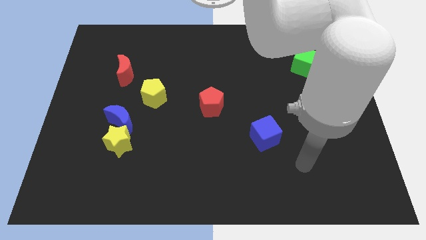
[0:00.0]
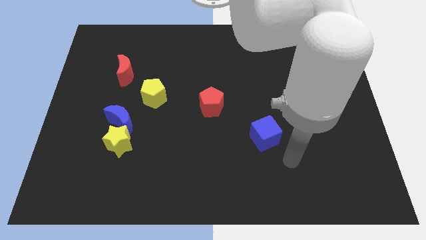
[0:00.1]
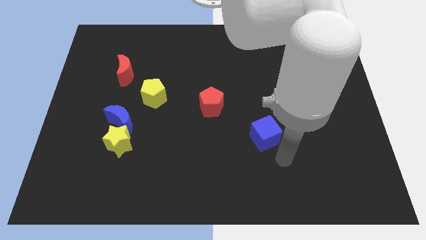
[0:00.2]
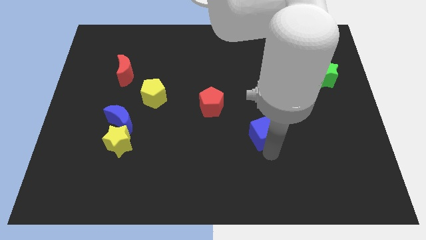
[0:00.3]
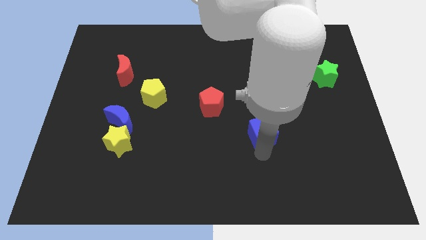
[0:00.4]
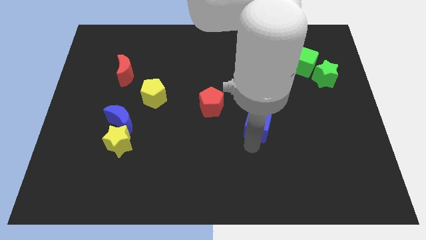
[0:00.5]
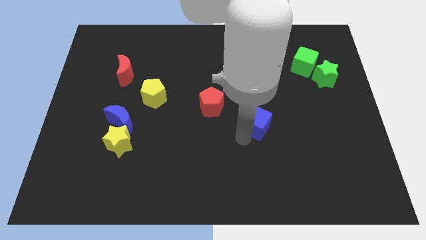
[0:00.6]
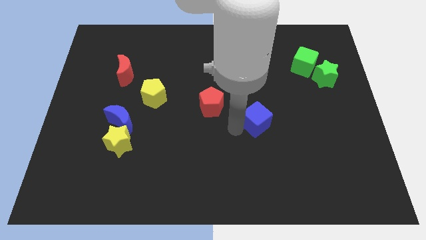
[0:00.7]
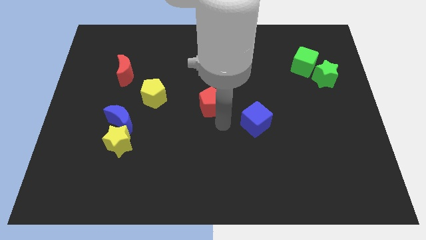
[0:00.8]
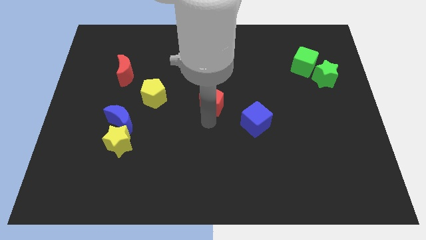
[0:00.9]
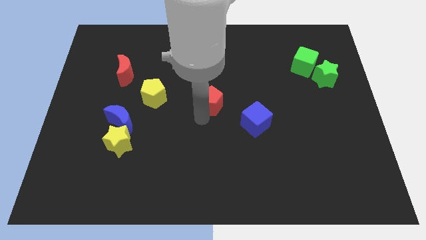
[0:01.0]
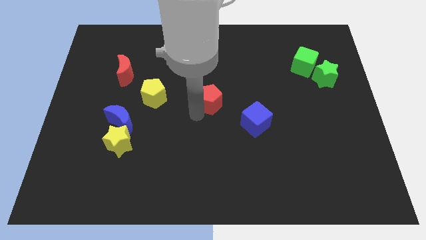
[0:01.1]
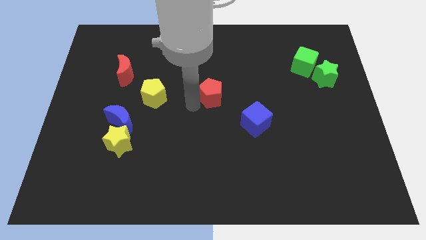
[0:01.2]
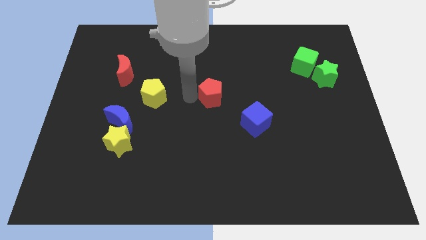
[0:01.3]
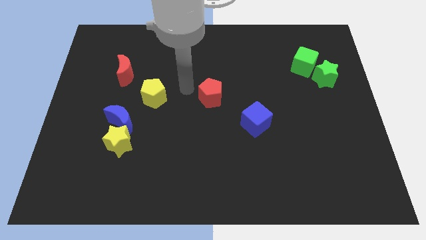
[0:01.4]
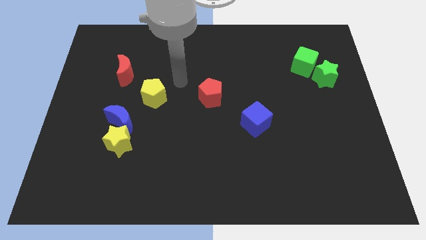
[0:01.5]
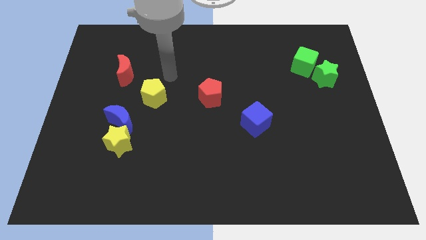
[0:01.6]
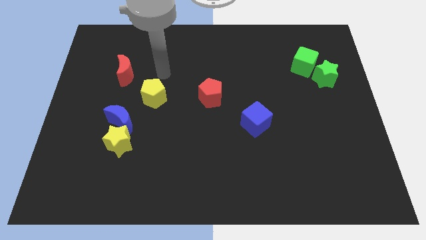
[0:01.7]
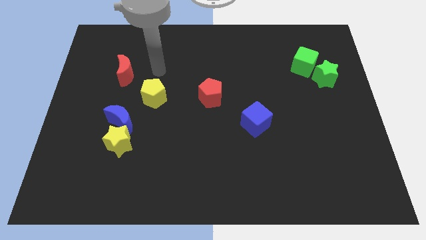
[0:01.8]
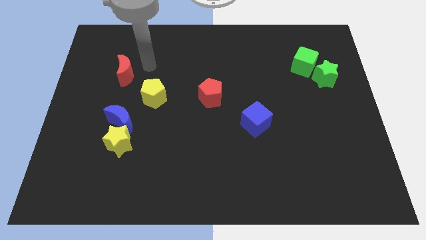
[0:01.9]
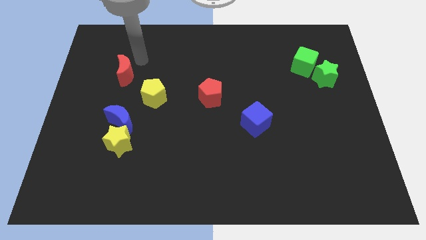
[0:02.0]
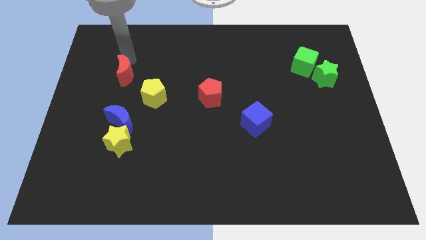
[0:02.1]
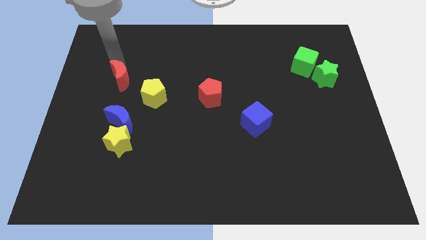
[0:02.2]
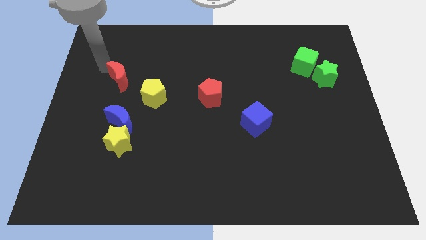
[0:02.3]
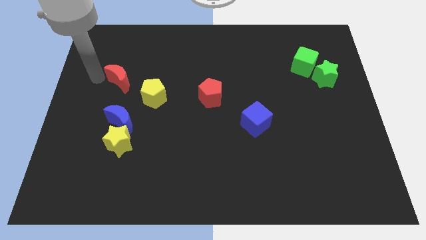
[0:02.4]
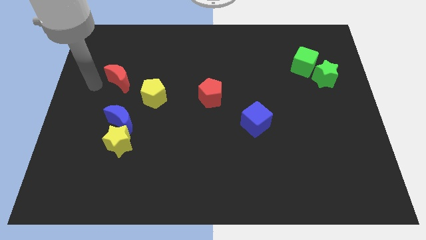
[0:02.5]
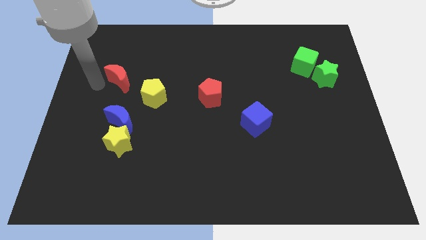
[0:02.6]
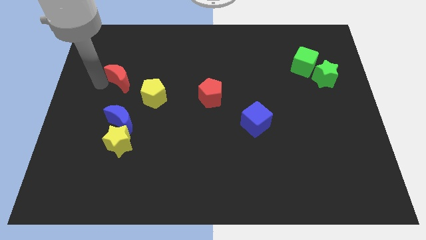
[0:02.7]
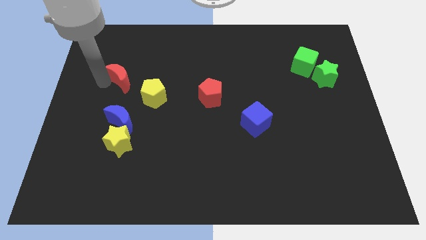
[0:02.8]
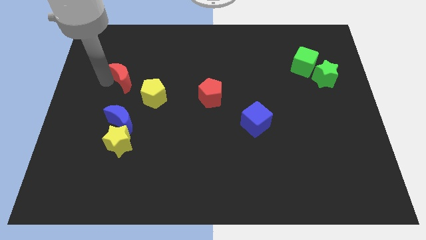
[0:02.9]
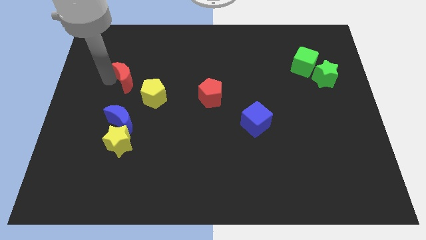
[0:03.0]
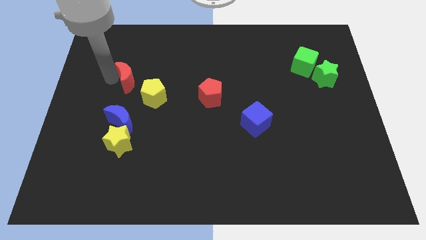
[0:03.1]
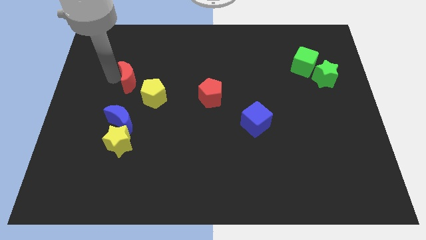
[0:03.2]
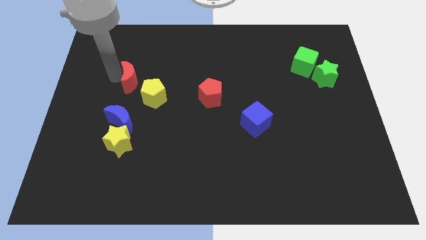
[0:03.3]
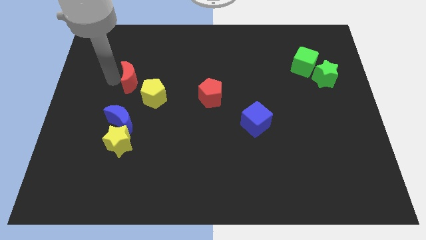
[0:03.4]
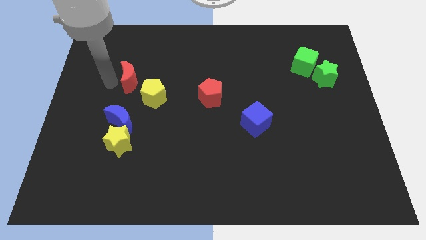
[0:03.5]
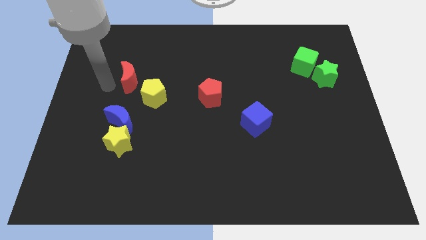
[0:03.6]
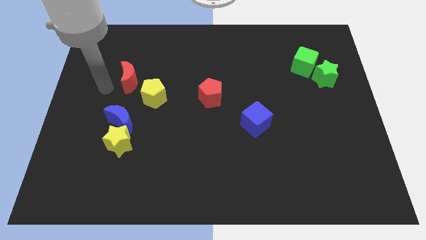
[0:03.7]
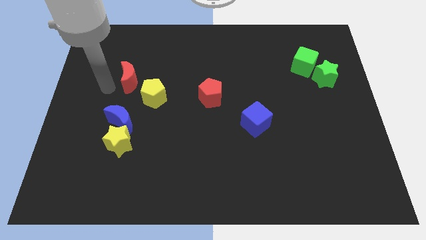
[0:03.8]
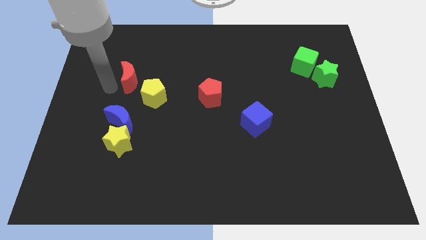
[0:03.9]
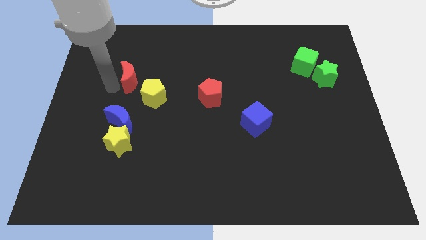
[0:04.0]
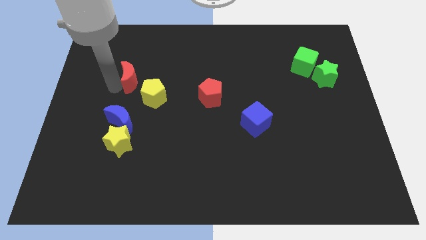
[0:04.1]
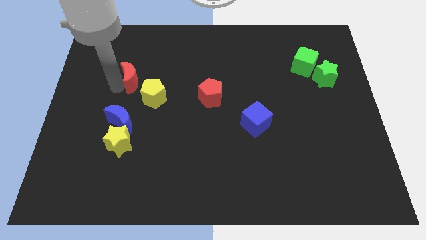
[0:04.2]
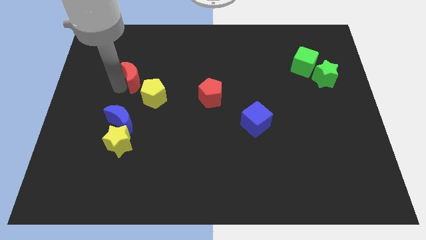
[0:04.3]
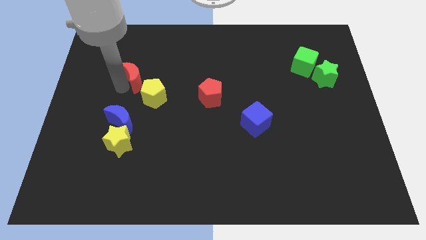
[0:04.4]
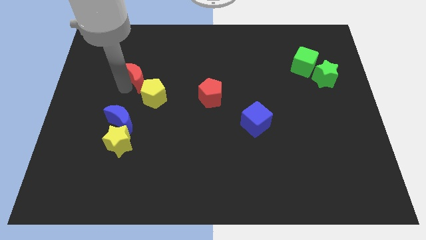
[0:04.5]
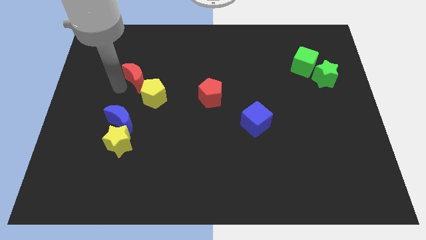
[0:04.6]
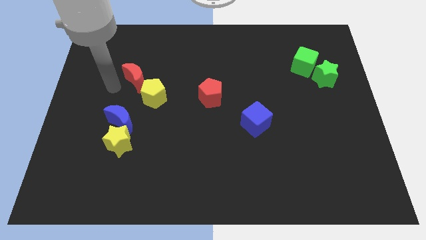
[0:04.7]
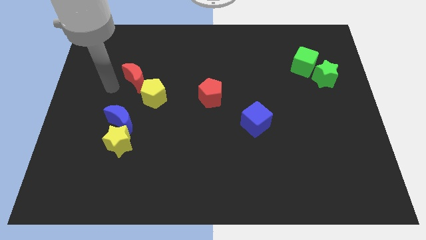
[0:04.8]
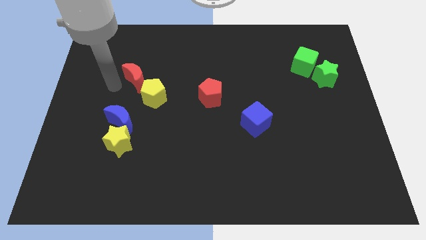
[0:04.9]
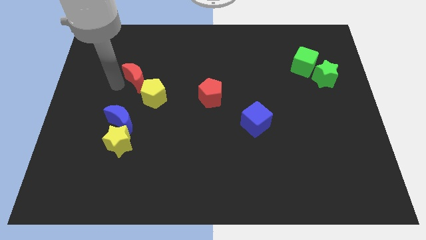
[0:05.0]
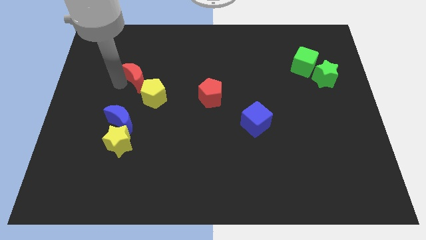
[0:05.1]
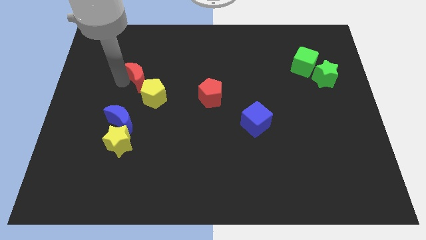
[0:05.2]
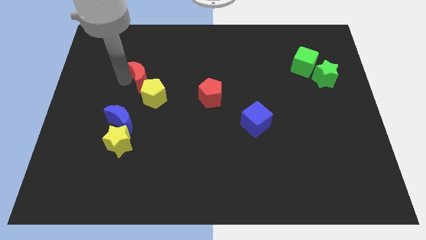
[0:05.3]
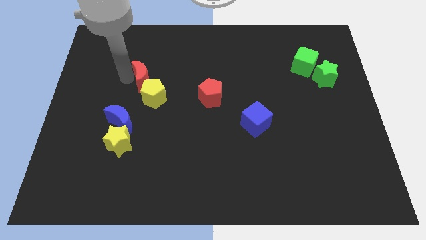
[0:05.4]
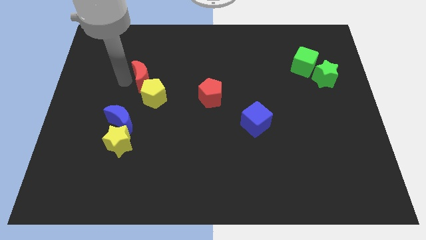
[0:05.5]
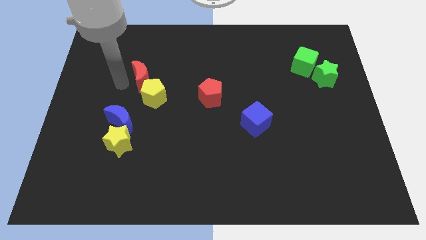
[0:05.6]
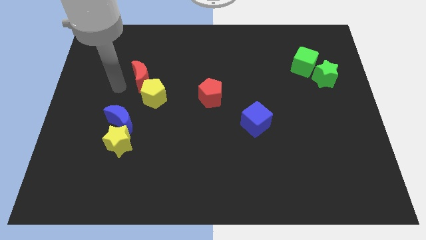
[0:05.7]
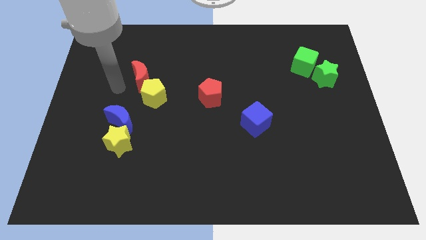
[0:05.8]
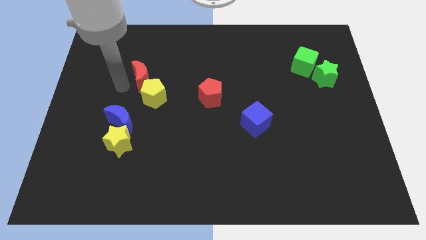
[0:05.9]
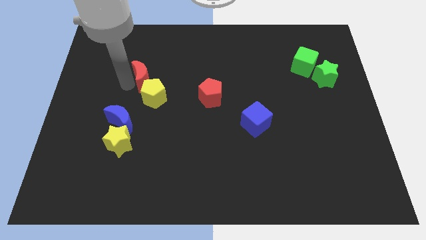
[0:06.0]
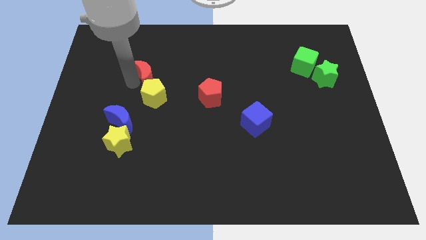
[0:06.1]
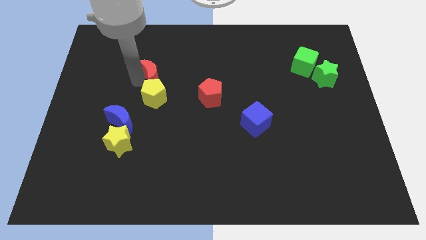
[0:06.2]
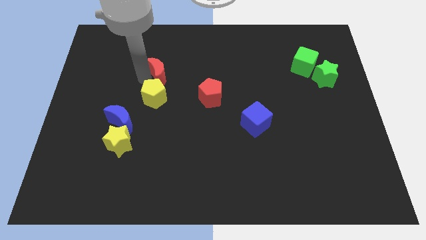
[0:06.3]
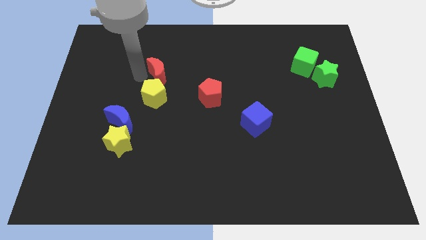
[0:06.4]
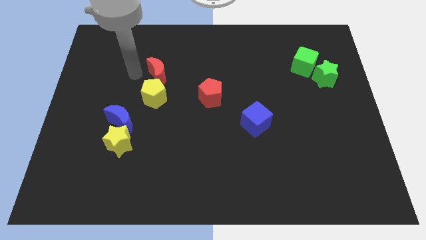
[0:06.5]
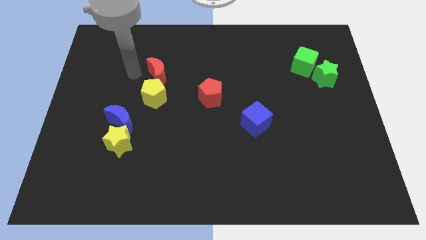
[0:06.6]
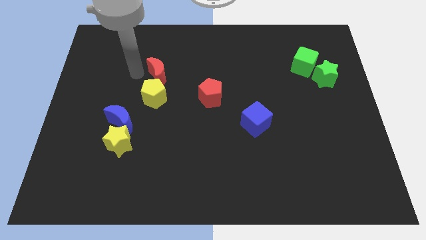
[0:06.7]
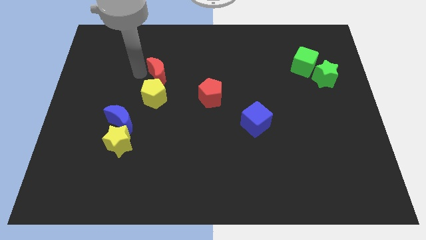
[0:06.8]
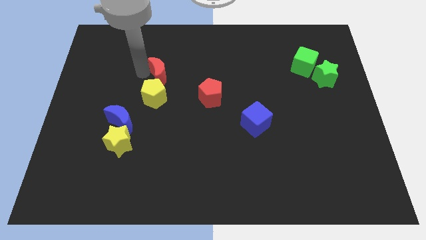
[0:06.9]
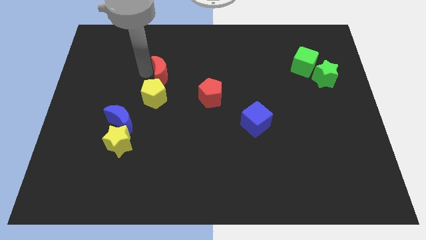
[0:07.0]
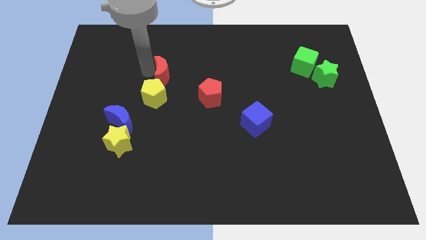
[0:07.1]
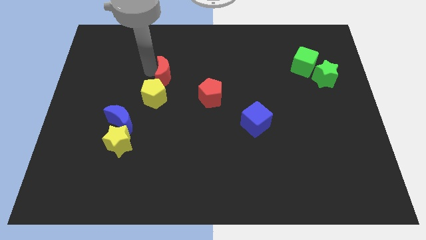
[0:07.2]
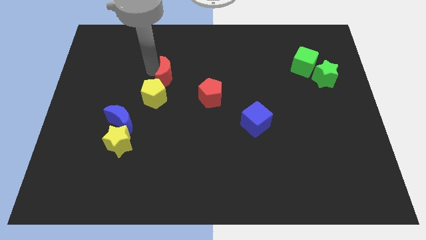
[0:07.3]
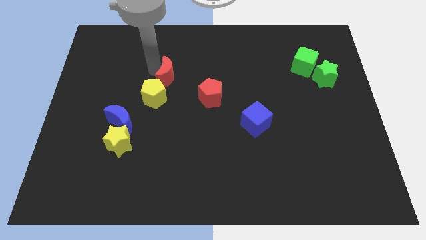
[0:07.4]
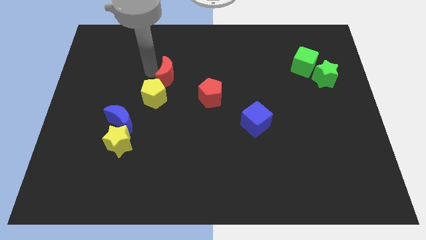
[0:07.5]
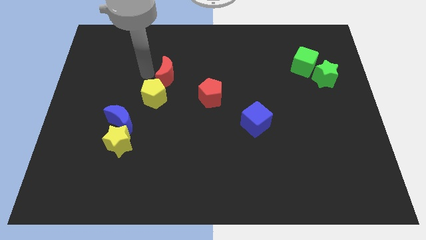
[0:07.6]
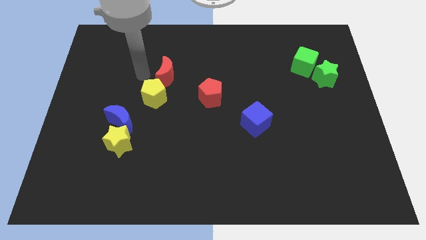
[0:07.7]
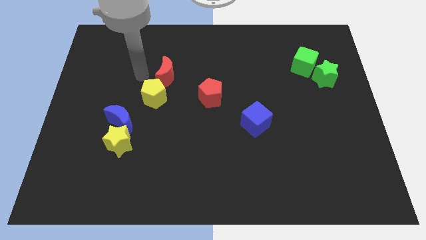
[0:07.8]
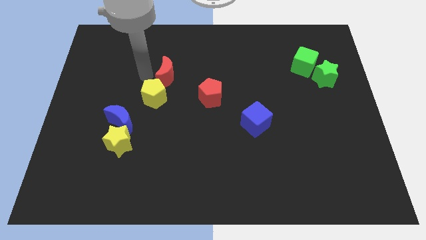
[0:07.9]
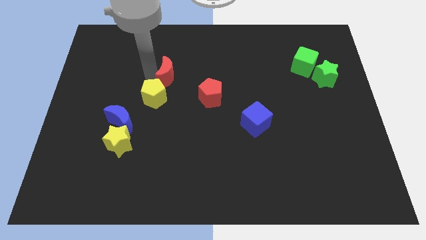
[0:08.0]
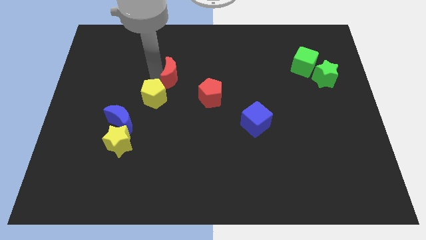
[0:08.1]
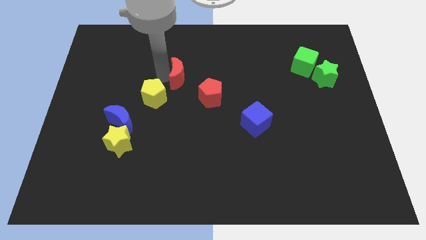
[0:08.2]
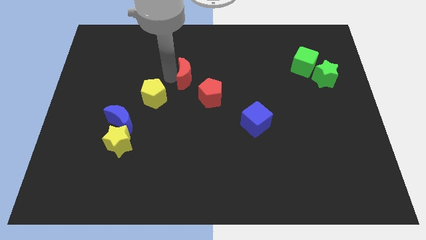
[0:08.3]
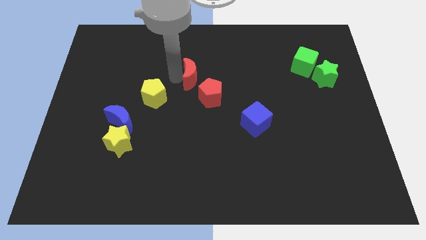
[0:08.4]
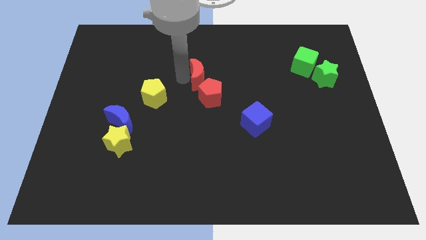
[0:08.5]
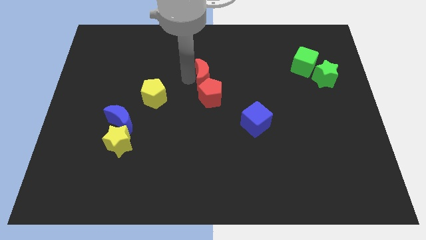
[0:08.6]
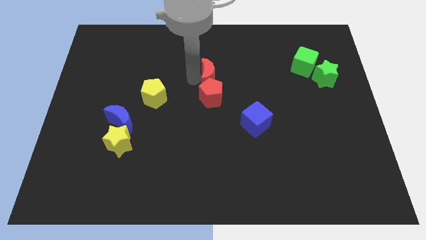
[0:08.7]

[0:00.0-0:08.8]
push the red moon right
